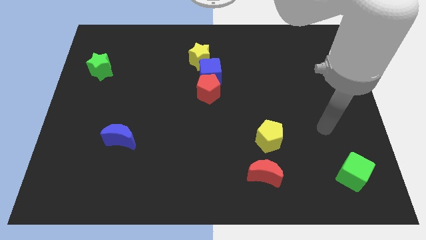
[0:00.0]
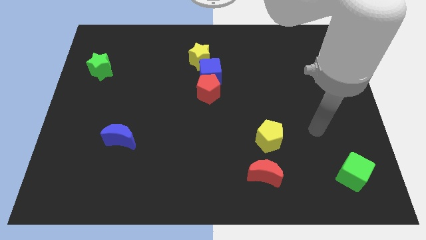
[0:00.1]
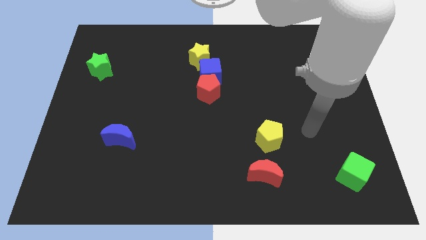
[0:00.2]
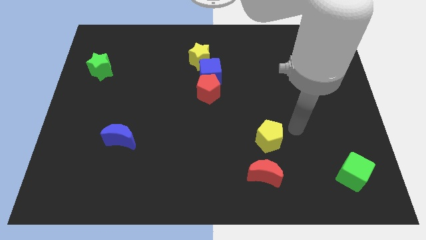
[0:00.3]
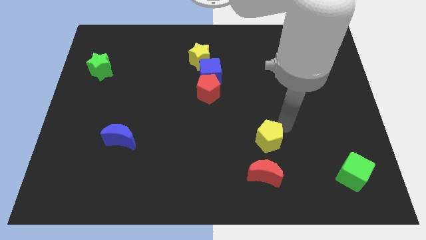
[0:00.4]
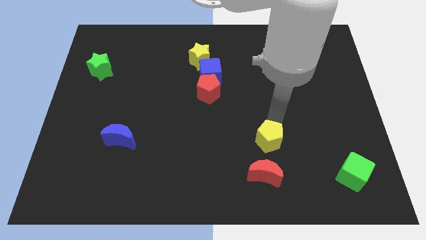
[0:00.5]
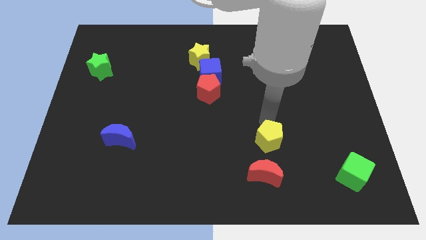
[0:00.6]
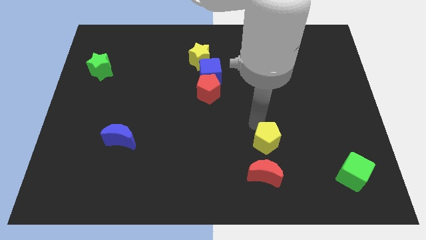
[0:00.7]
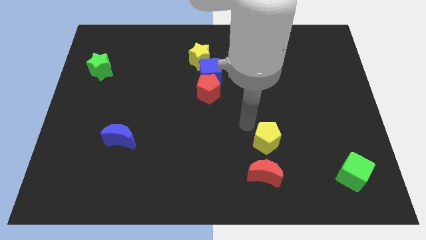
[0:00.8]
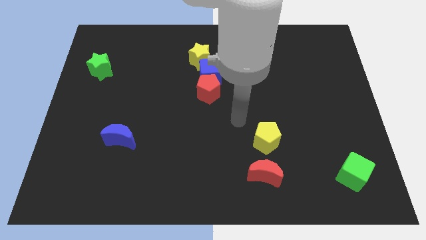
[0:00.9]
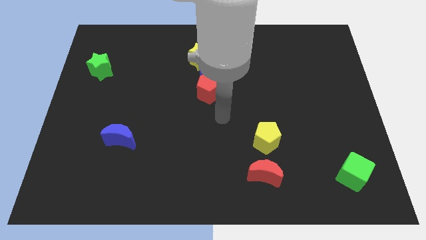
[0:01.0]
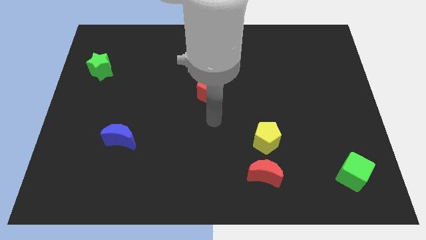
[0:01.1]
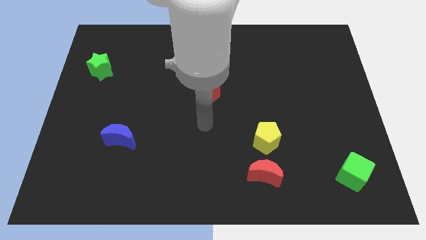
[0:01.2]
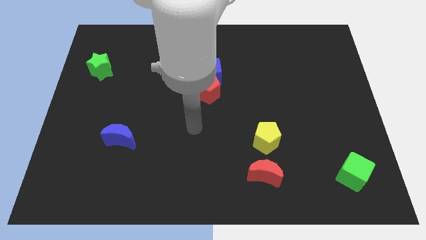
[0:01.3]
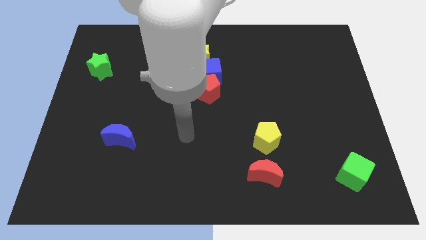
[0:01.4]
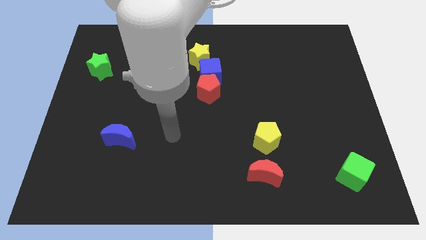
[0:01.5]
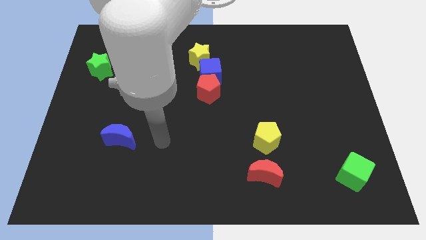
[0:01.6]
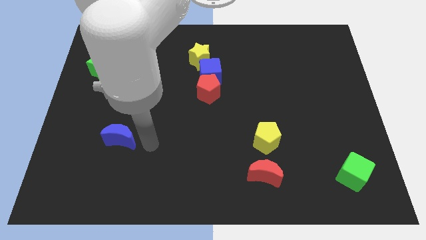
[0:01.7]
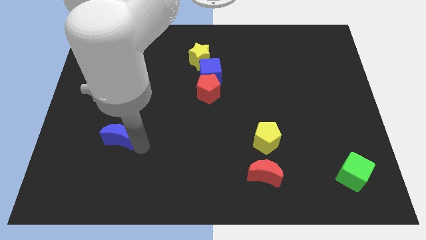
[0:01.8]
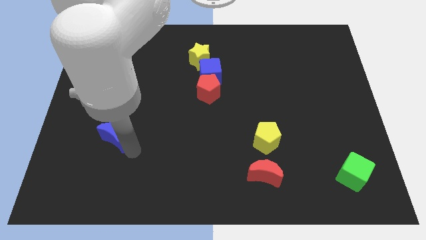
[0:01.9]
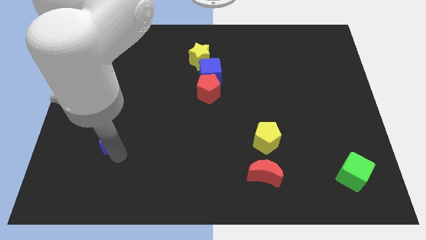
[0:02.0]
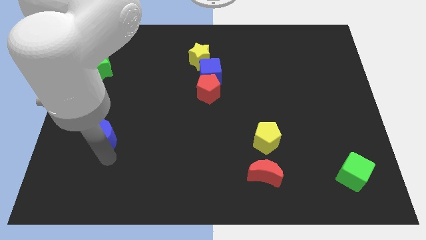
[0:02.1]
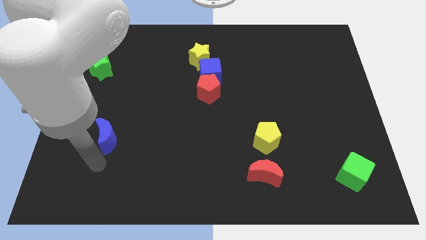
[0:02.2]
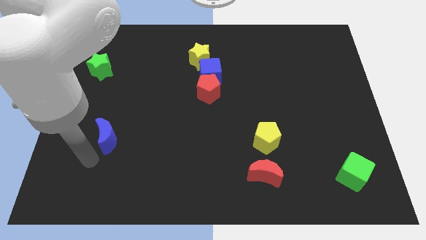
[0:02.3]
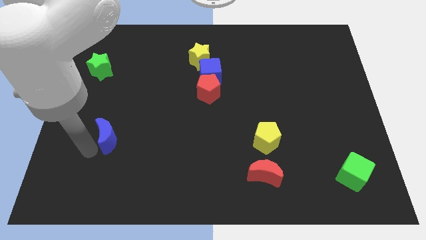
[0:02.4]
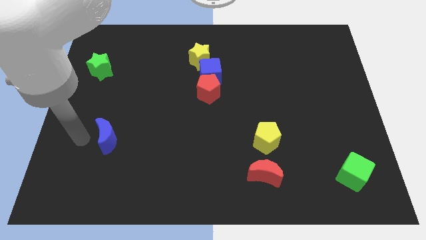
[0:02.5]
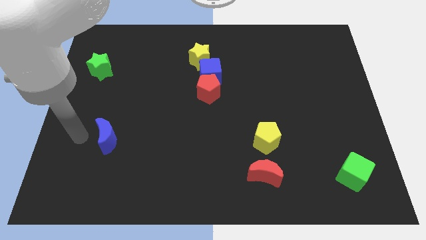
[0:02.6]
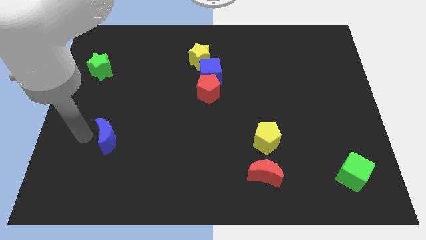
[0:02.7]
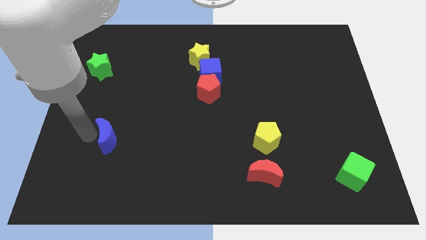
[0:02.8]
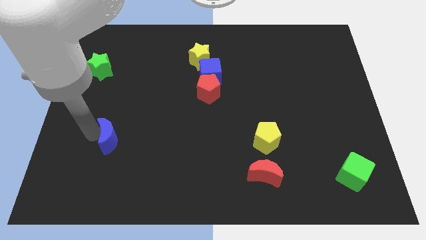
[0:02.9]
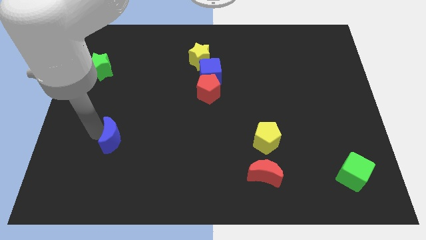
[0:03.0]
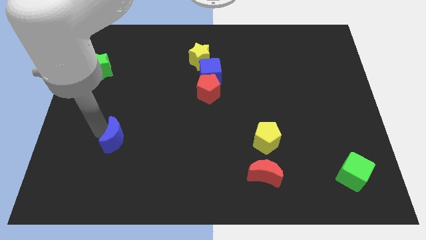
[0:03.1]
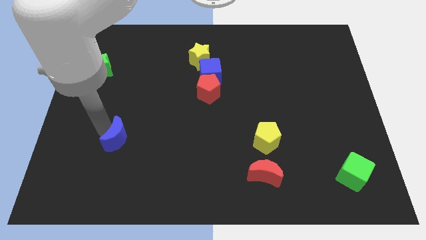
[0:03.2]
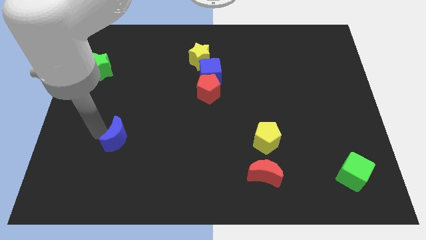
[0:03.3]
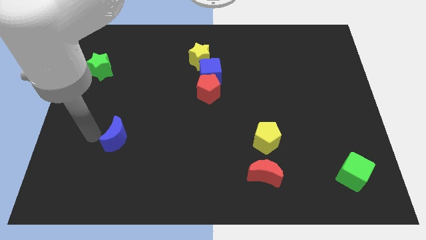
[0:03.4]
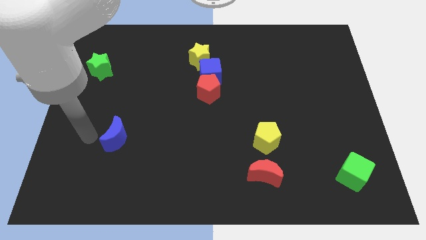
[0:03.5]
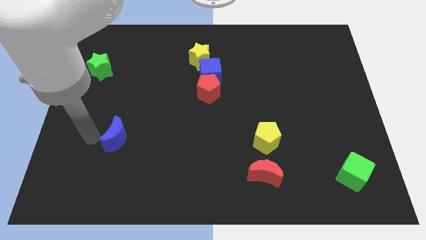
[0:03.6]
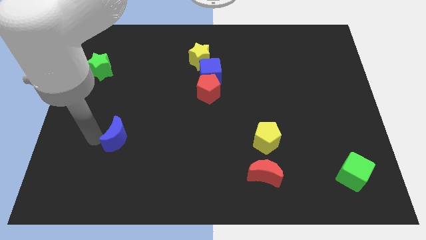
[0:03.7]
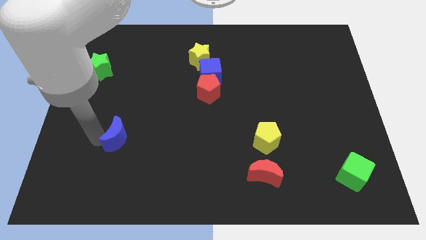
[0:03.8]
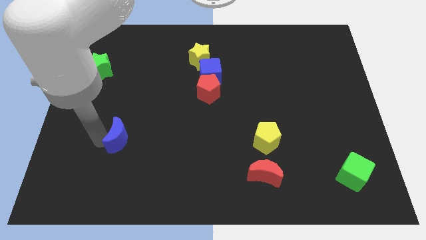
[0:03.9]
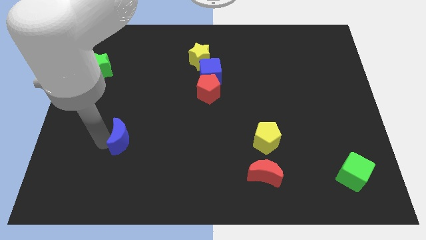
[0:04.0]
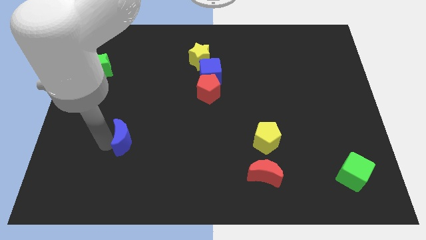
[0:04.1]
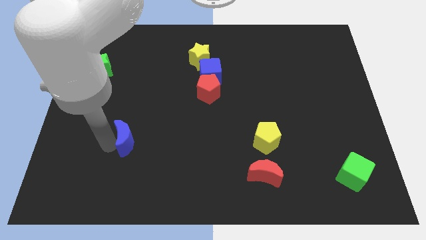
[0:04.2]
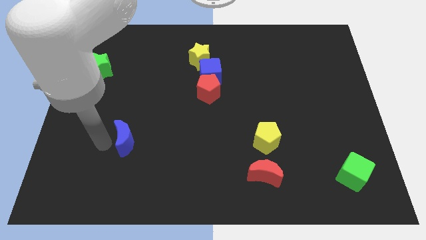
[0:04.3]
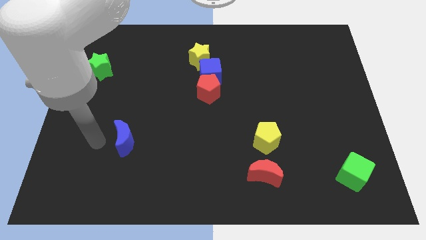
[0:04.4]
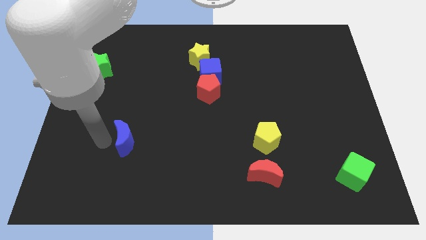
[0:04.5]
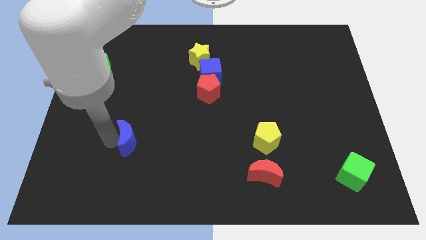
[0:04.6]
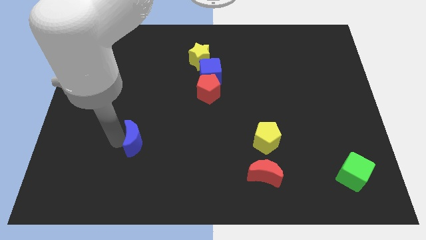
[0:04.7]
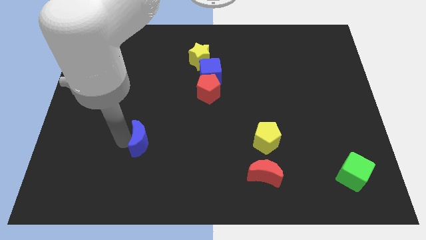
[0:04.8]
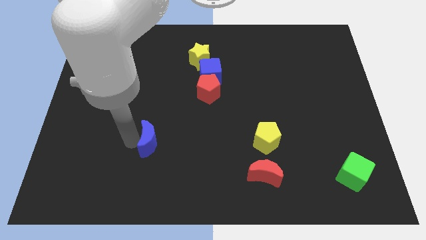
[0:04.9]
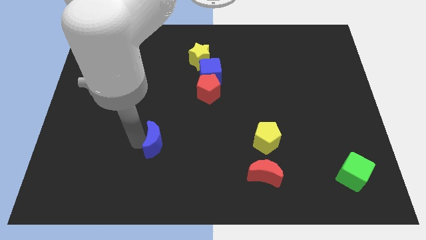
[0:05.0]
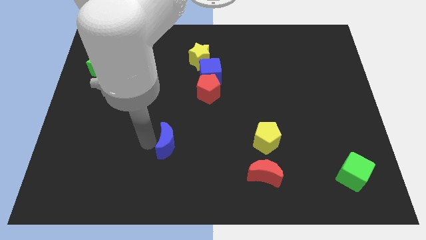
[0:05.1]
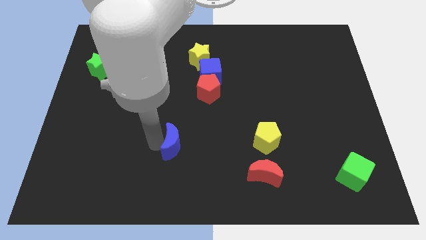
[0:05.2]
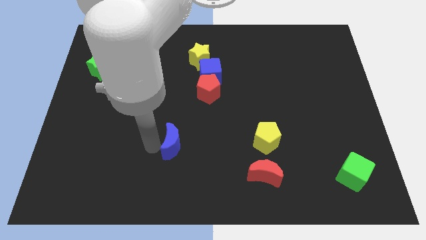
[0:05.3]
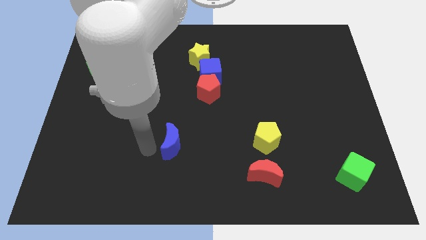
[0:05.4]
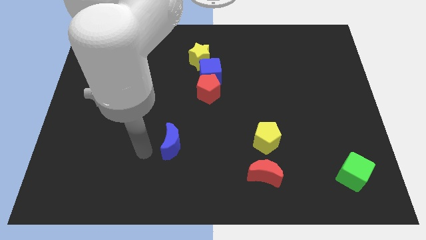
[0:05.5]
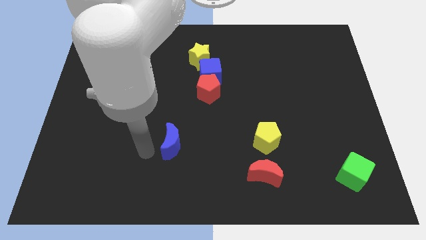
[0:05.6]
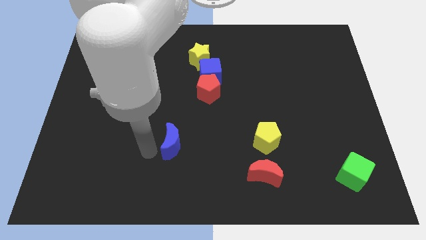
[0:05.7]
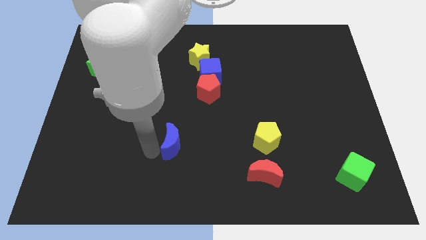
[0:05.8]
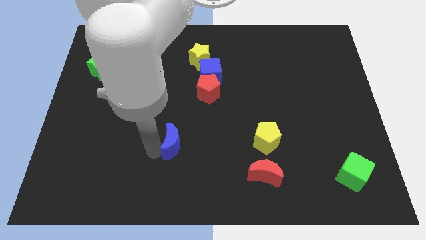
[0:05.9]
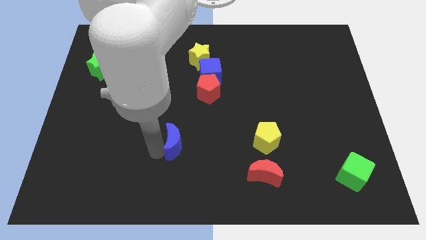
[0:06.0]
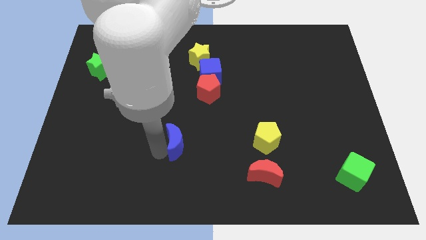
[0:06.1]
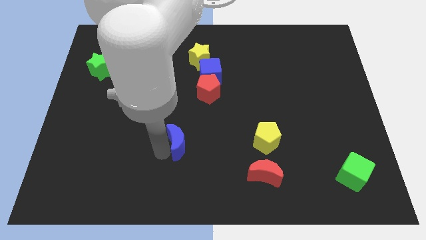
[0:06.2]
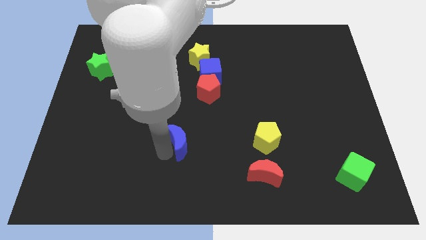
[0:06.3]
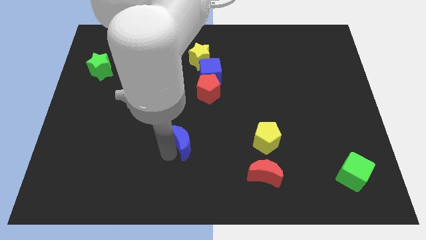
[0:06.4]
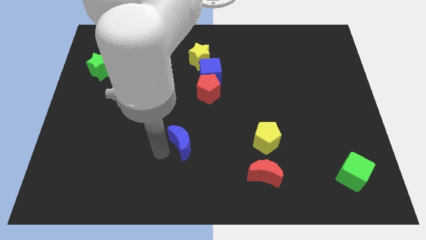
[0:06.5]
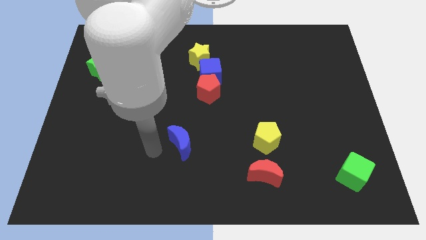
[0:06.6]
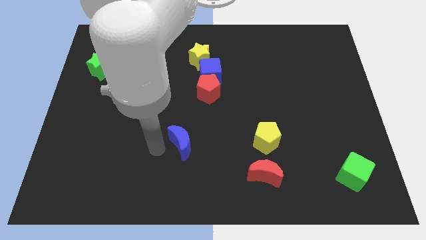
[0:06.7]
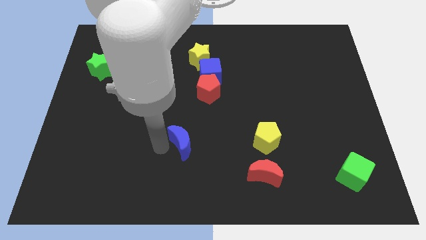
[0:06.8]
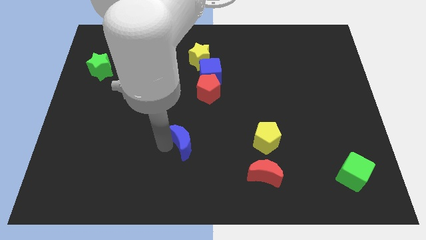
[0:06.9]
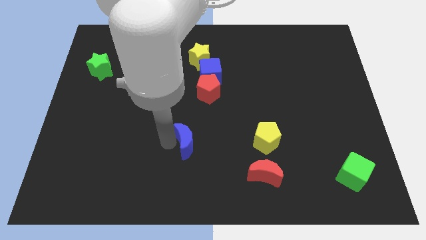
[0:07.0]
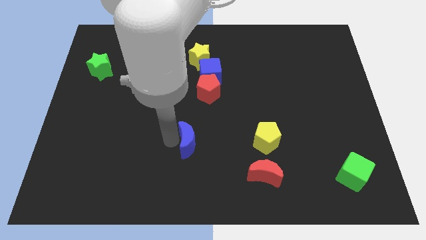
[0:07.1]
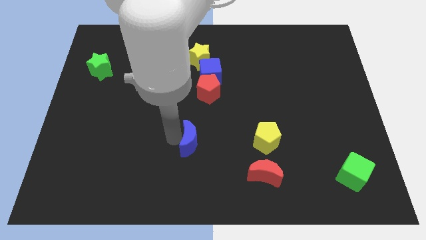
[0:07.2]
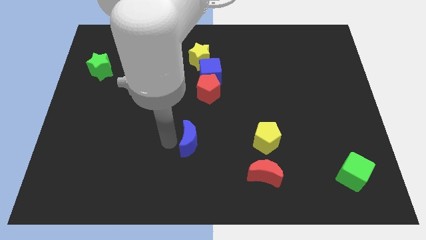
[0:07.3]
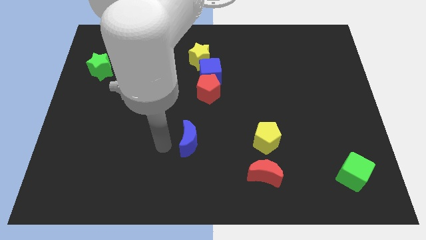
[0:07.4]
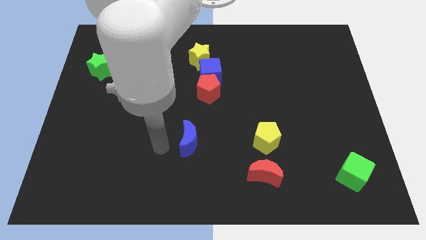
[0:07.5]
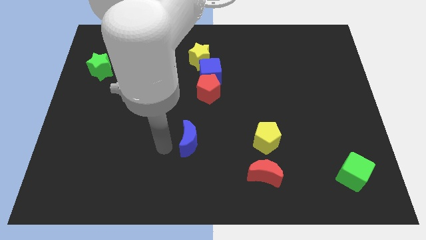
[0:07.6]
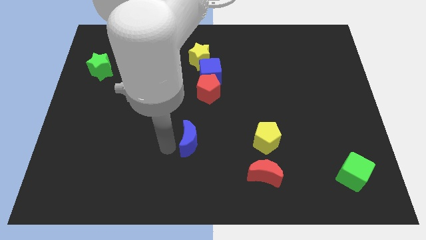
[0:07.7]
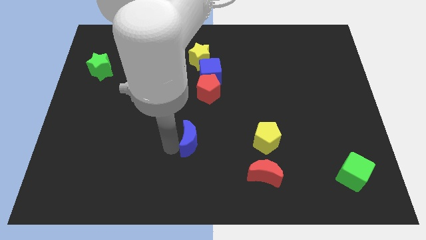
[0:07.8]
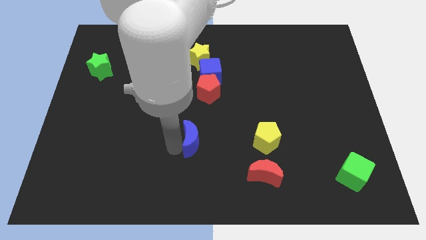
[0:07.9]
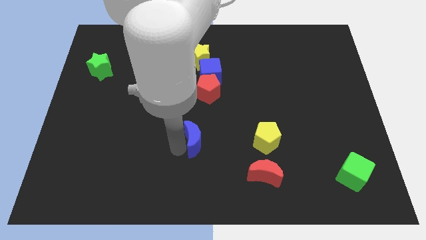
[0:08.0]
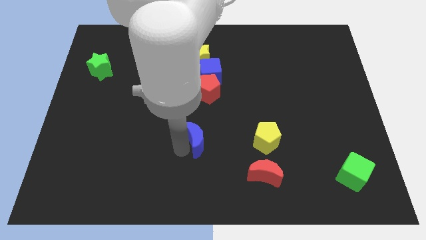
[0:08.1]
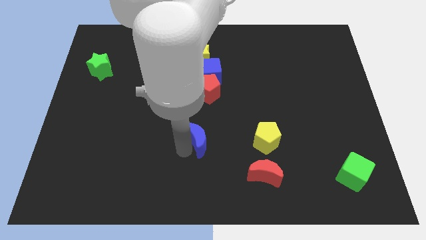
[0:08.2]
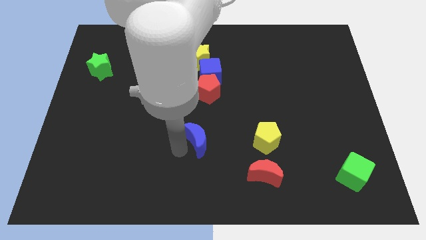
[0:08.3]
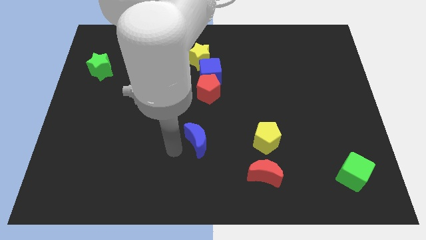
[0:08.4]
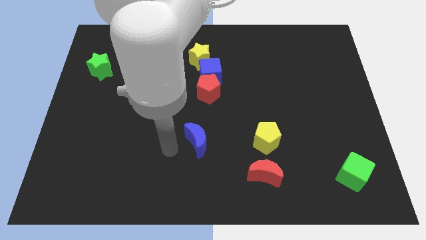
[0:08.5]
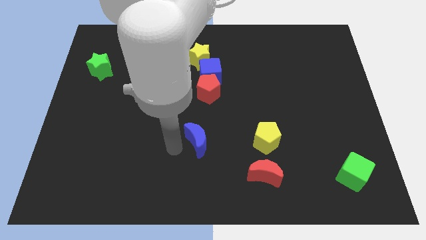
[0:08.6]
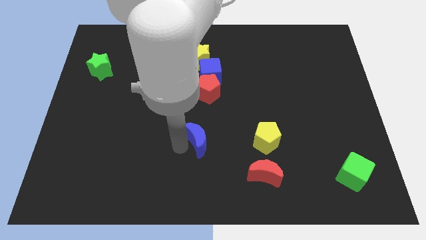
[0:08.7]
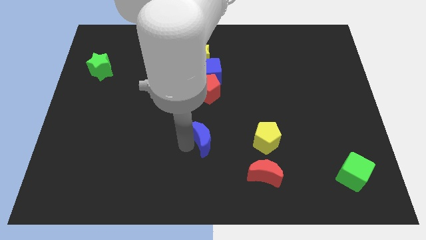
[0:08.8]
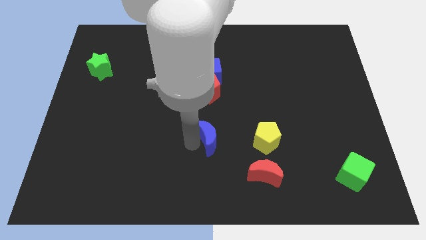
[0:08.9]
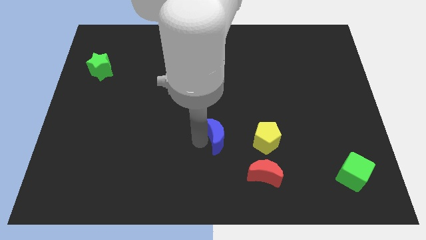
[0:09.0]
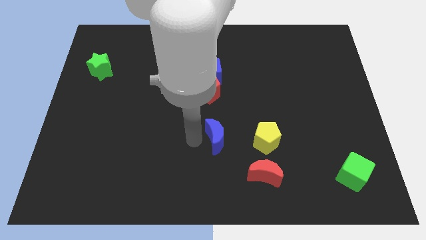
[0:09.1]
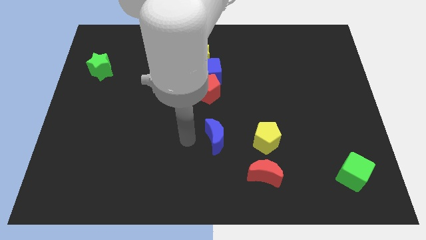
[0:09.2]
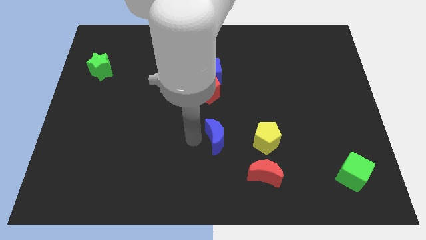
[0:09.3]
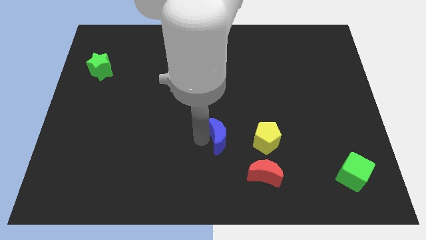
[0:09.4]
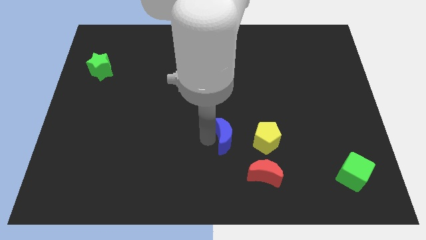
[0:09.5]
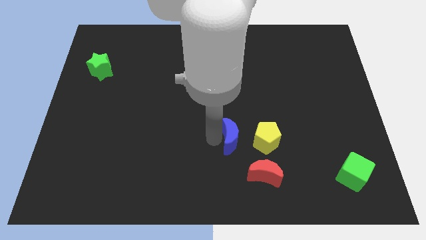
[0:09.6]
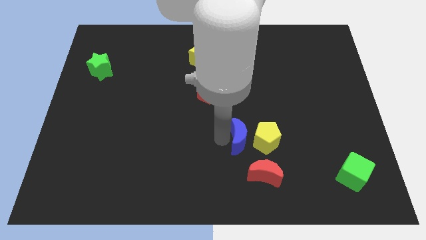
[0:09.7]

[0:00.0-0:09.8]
slide the blue moon close to the yellow pentagon
